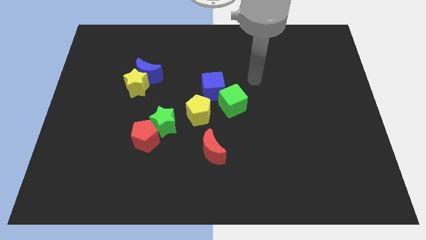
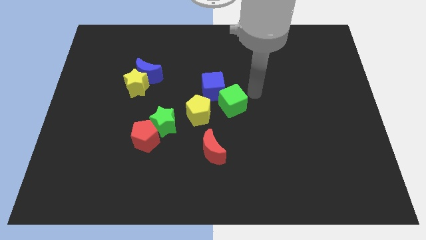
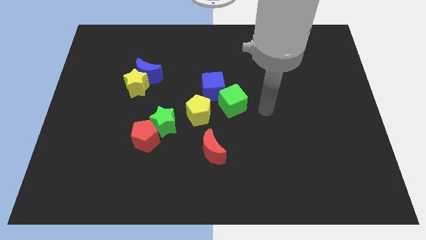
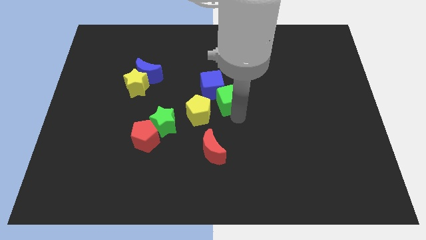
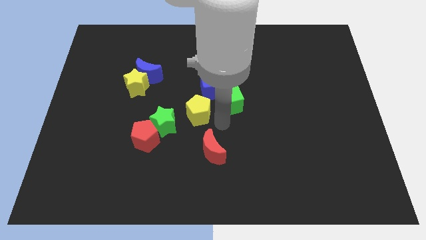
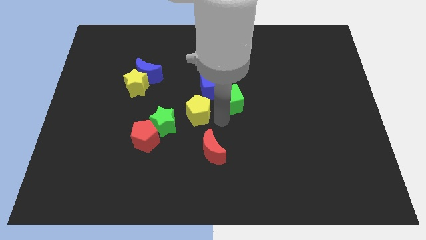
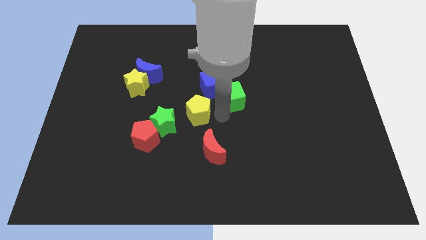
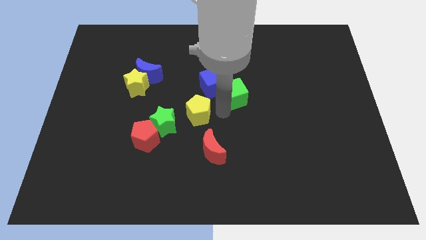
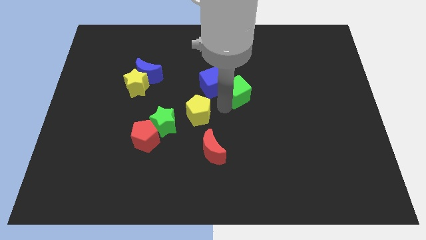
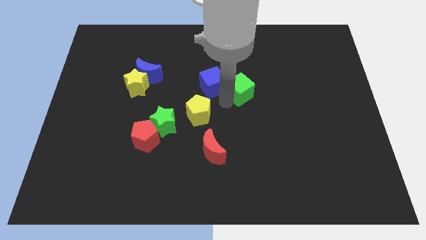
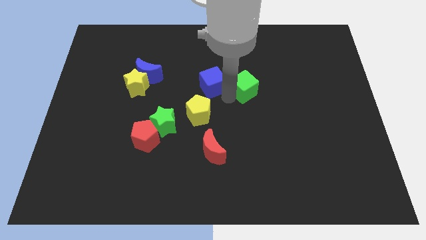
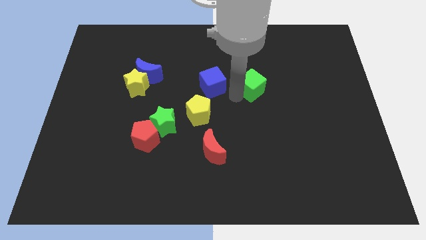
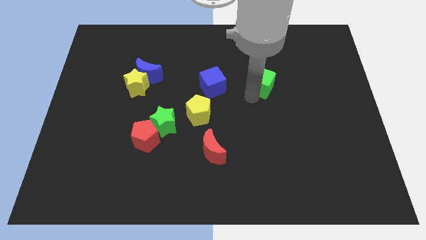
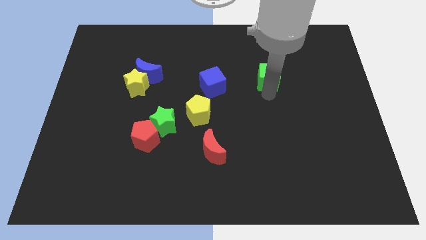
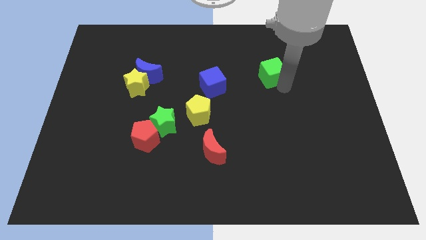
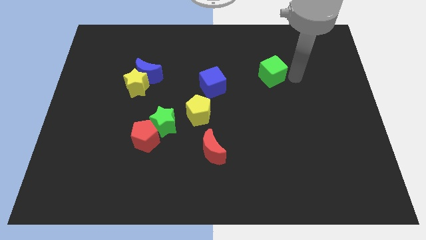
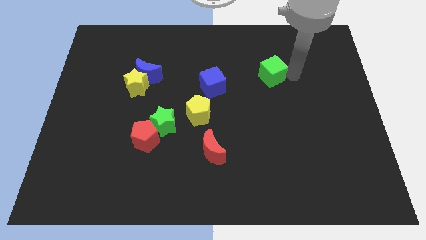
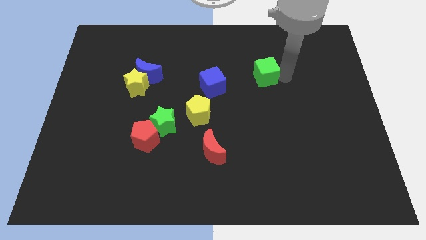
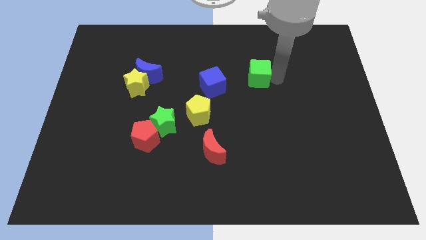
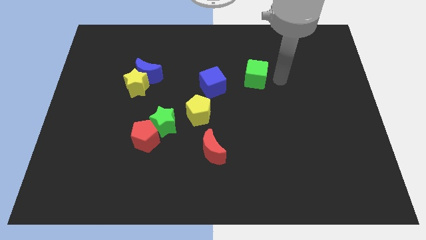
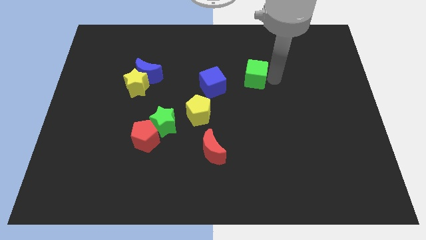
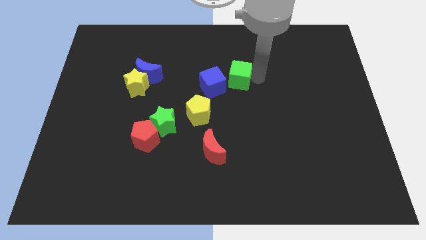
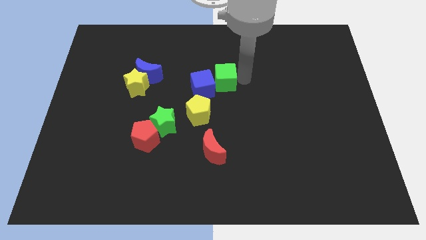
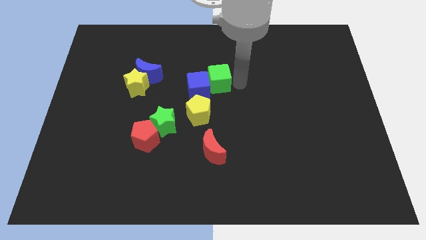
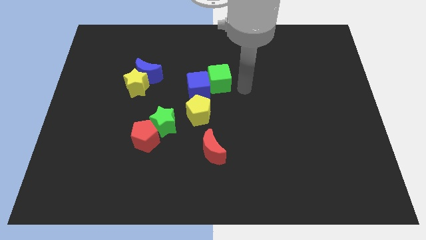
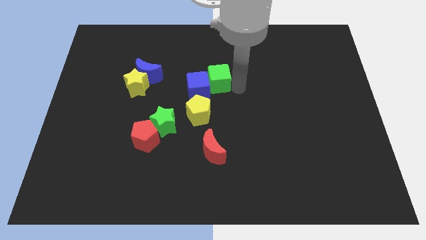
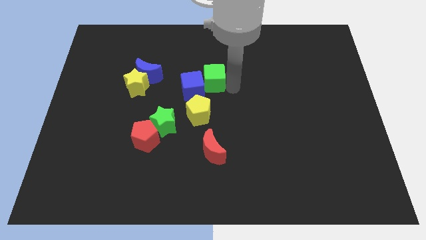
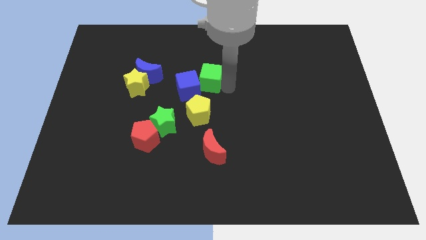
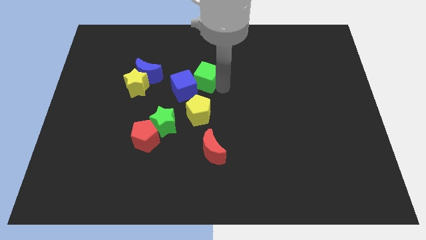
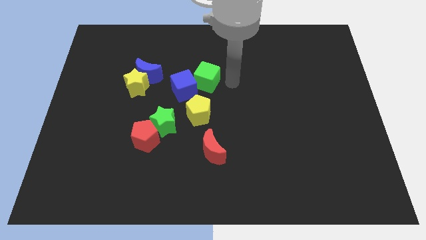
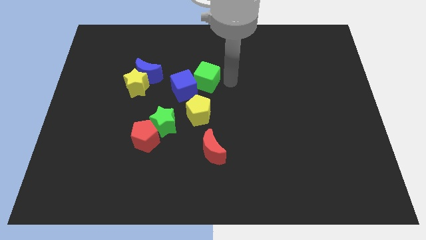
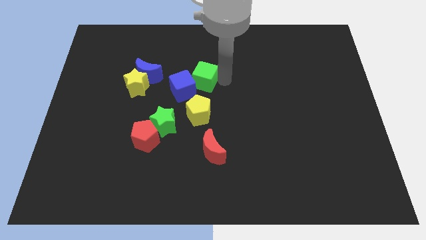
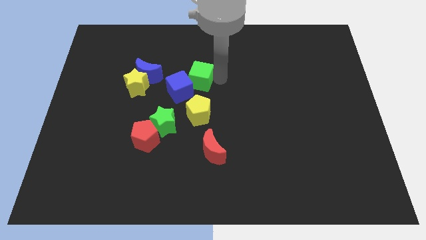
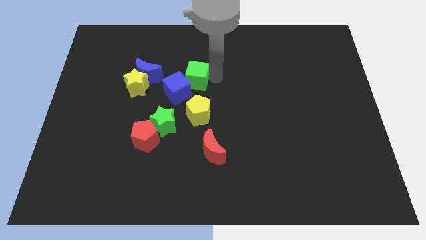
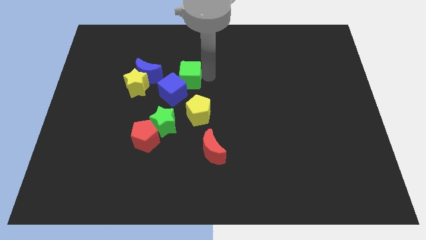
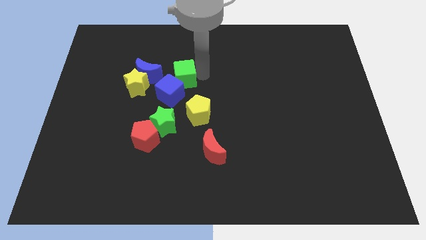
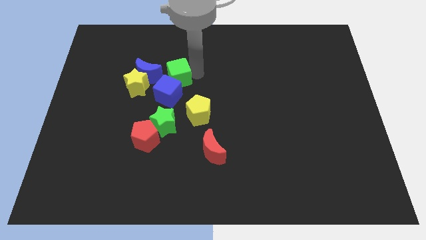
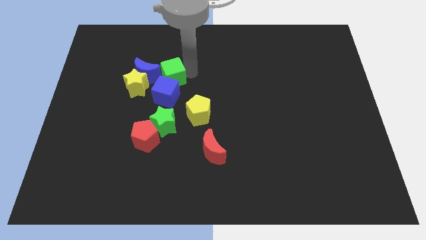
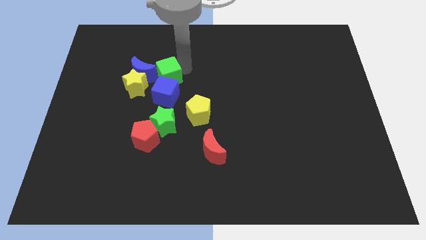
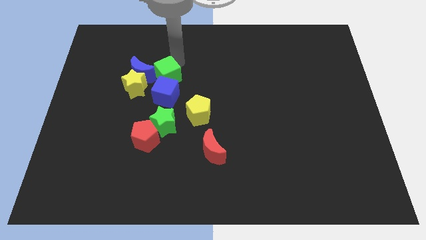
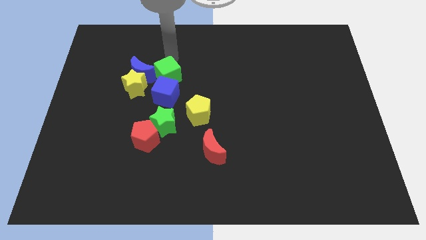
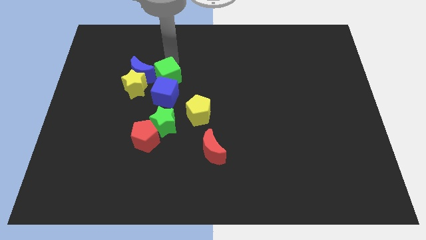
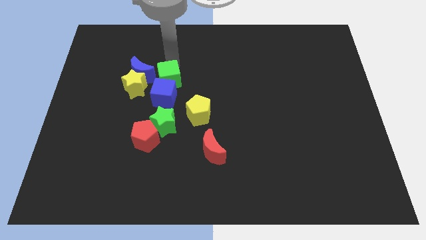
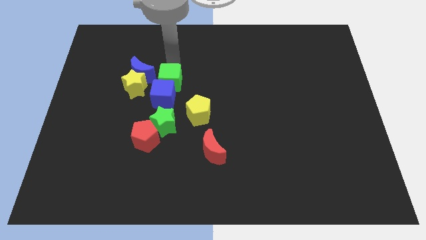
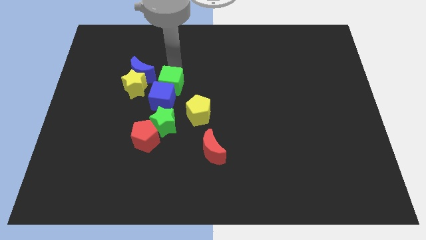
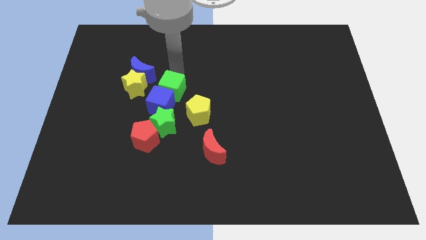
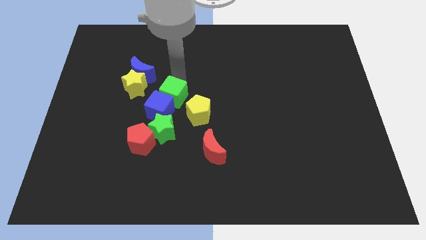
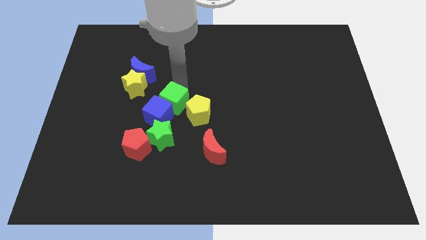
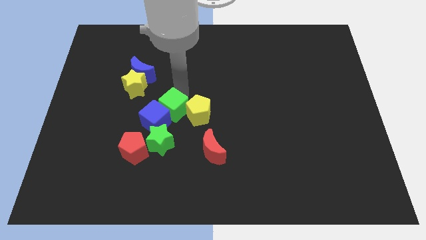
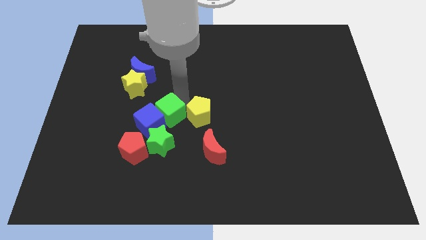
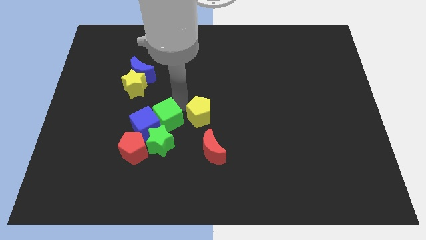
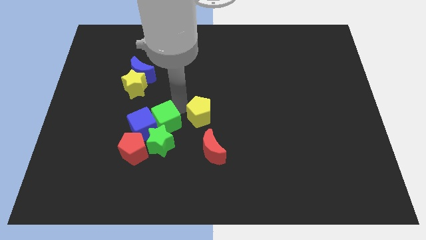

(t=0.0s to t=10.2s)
put the green cube diagonally up and to the left of the green star

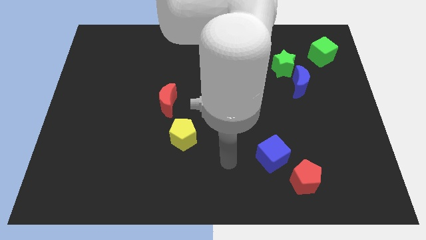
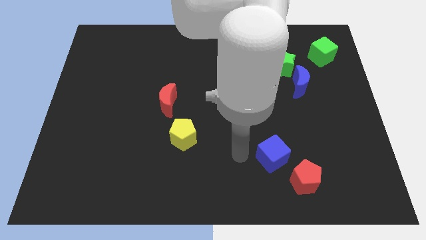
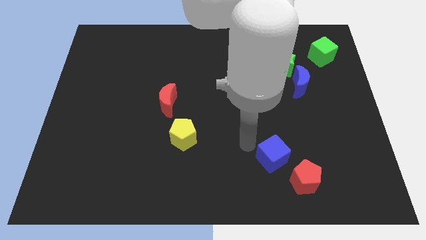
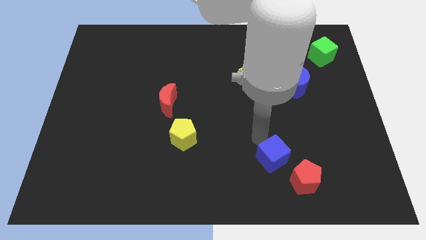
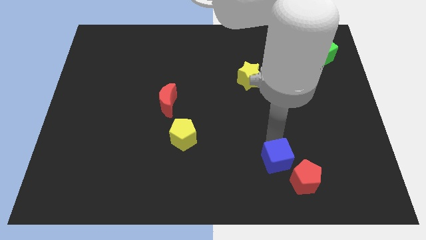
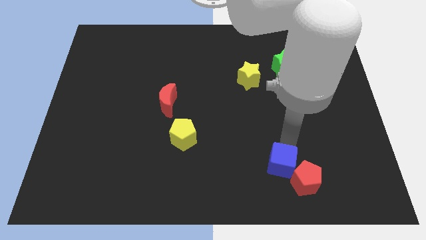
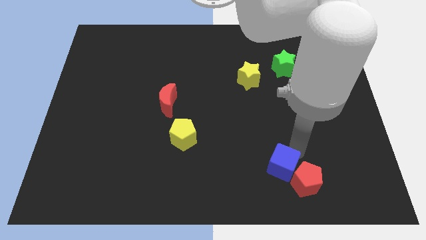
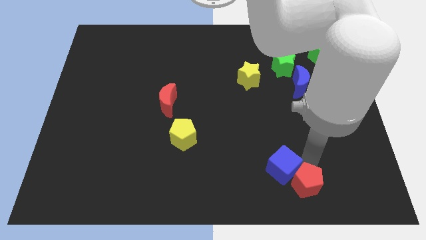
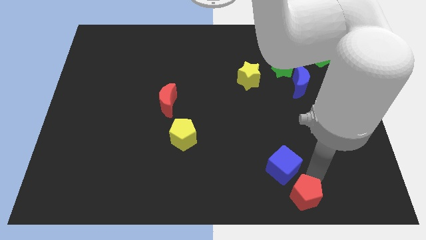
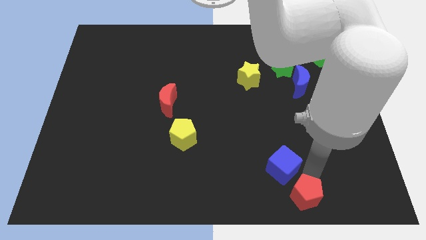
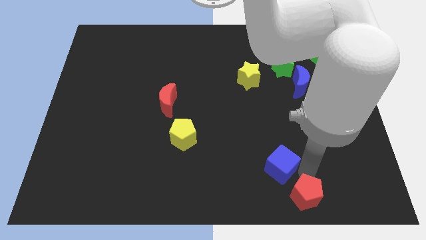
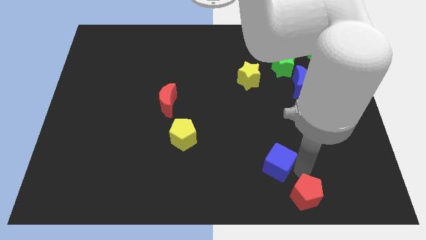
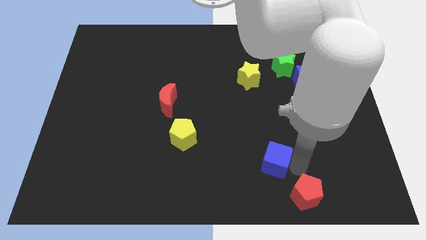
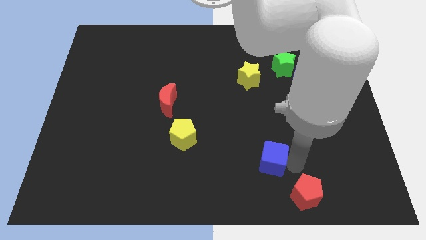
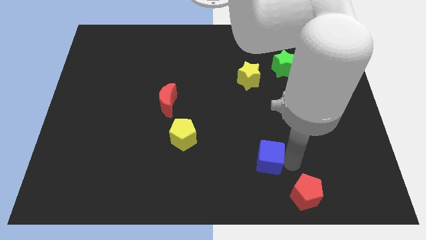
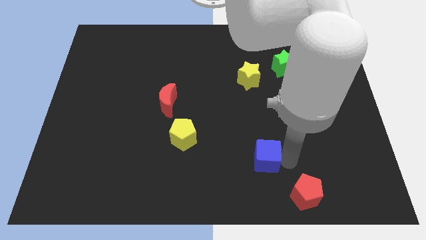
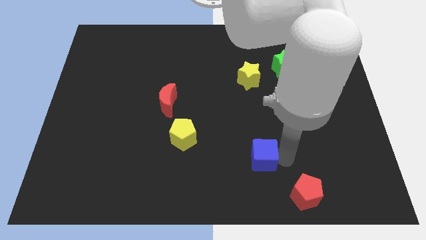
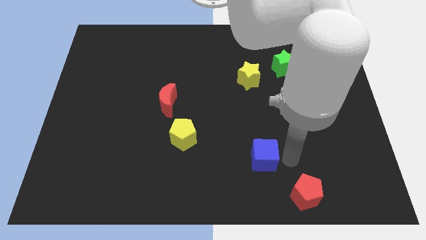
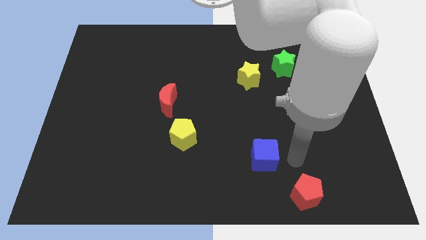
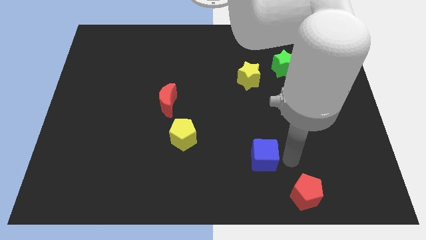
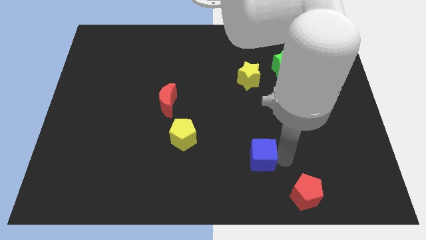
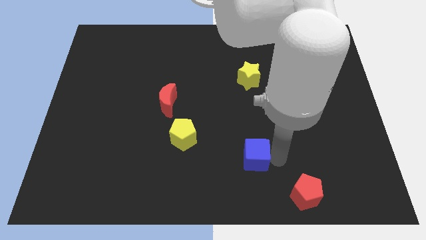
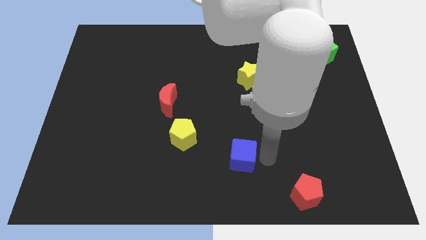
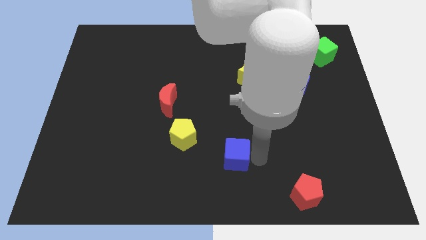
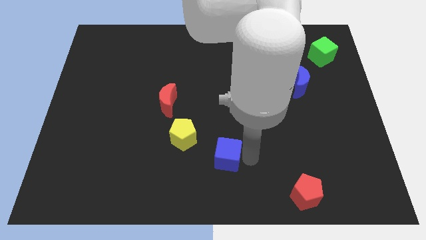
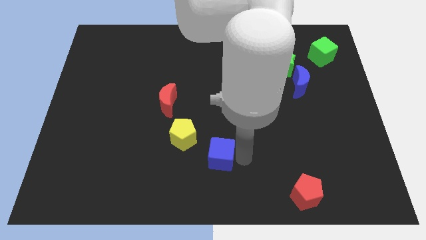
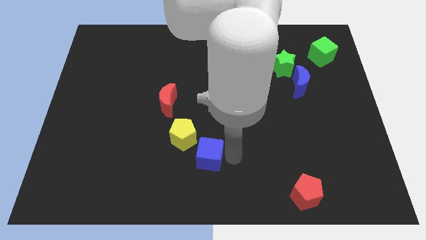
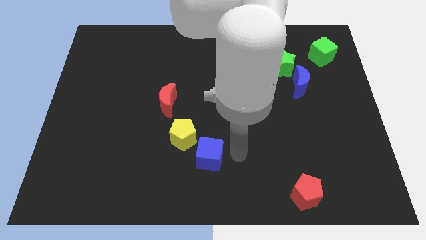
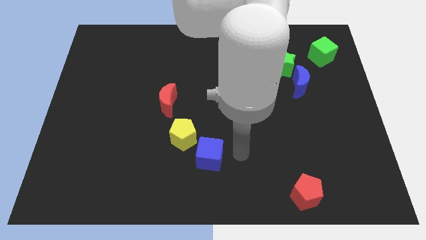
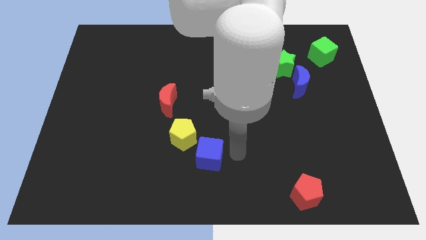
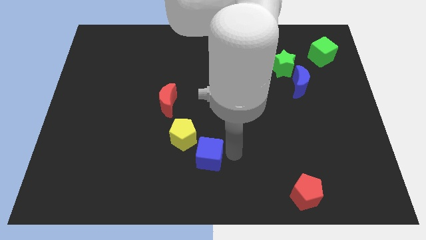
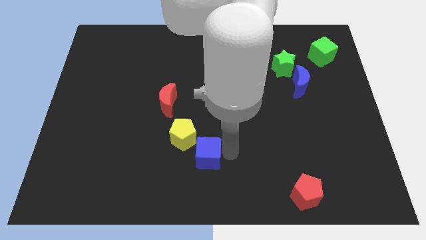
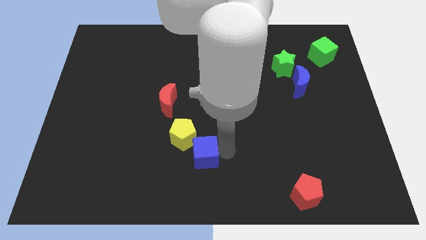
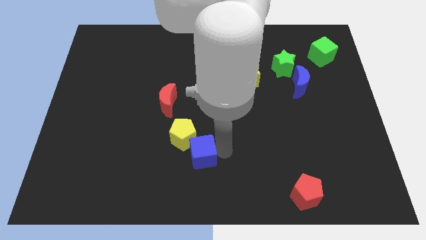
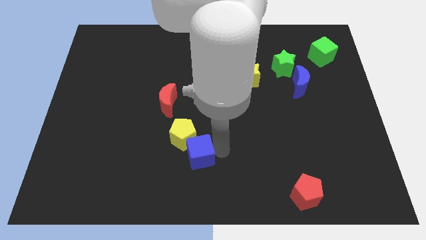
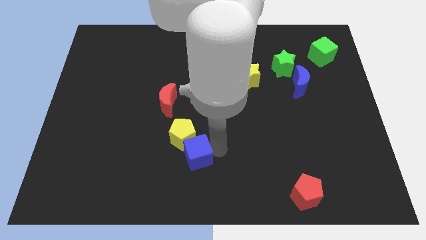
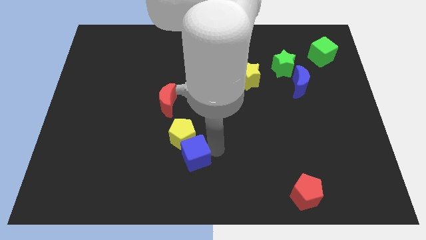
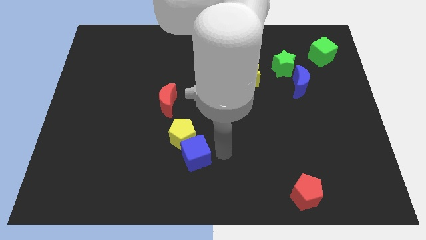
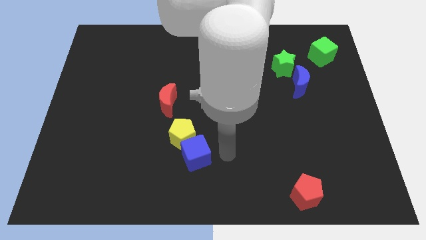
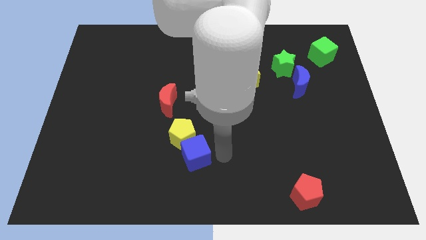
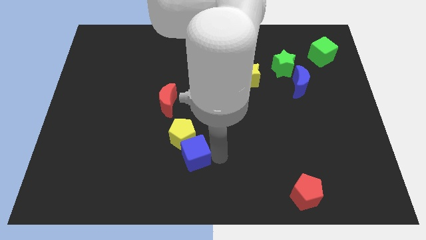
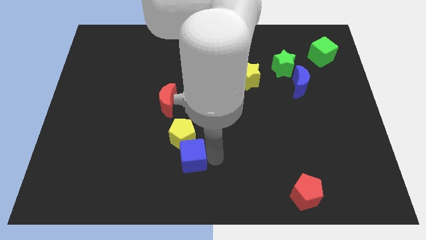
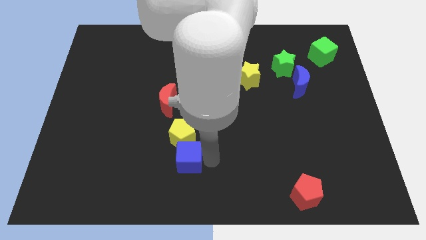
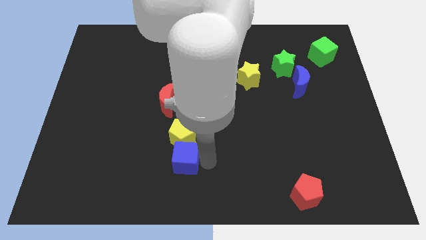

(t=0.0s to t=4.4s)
slide the blue cube diagonally down and to the left of the yellow pentagon
